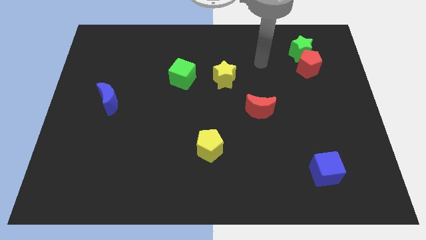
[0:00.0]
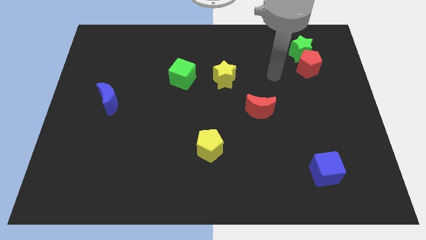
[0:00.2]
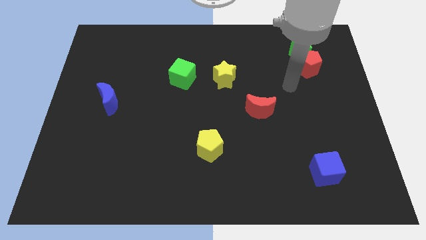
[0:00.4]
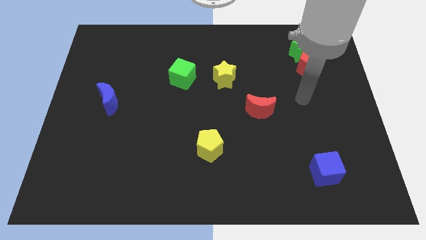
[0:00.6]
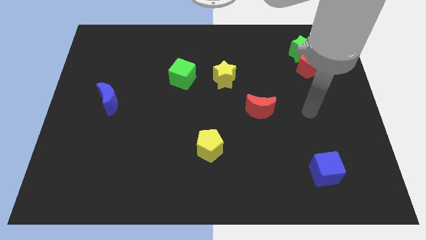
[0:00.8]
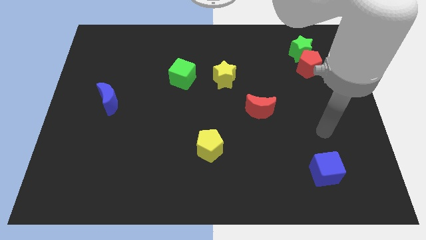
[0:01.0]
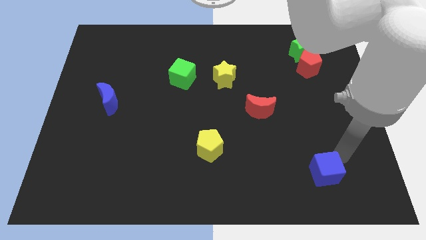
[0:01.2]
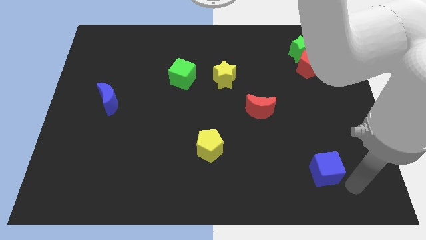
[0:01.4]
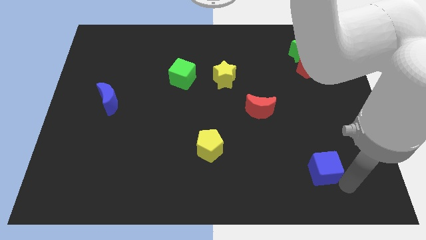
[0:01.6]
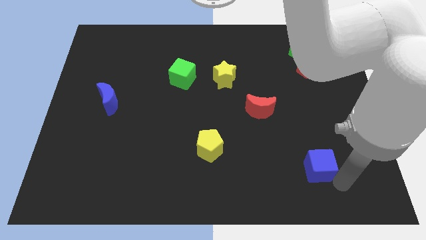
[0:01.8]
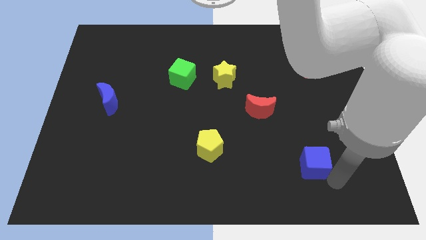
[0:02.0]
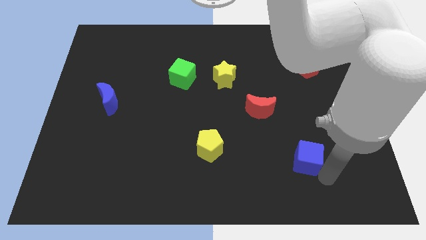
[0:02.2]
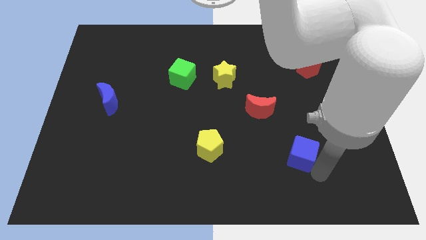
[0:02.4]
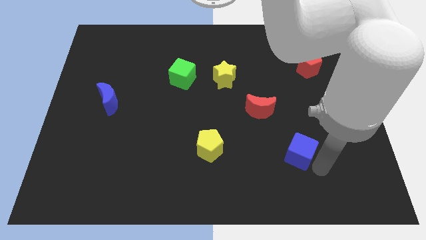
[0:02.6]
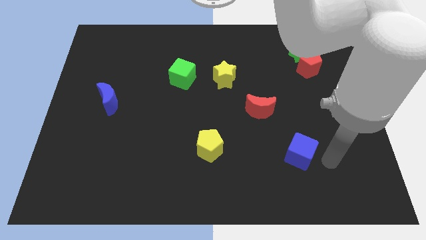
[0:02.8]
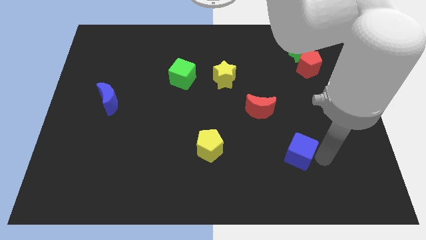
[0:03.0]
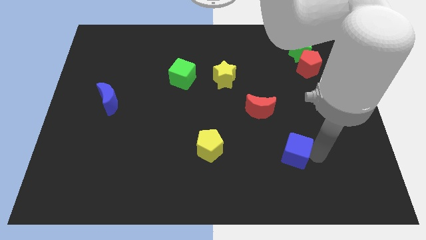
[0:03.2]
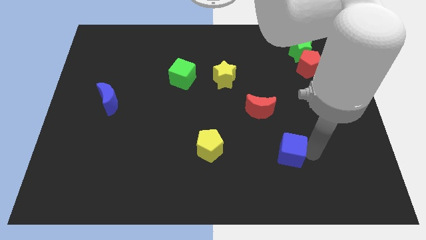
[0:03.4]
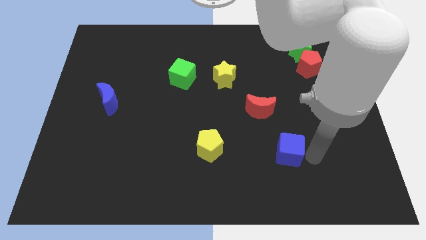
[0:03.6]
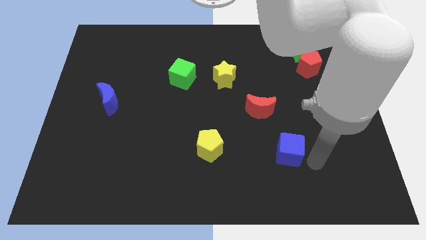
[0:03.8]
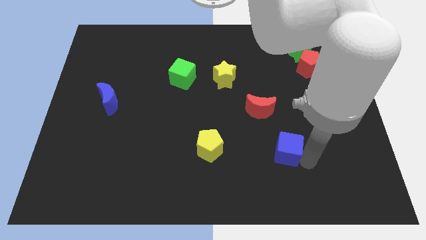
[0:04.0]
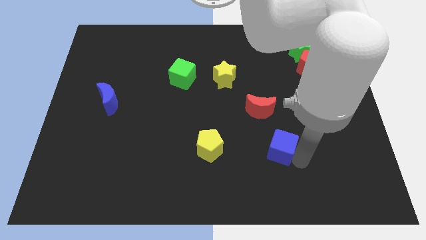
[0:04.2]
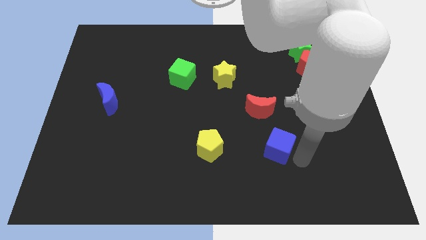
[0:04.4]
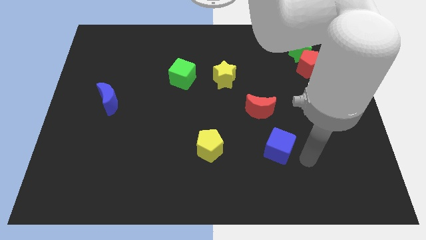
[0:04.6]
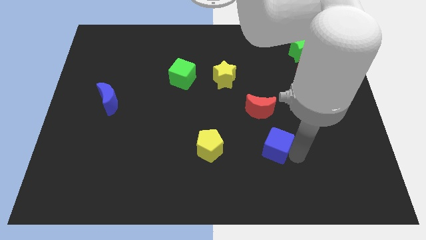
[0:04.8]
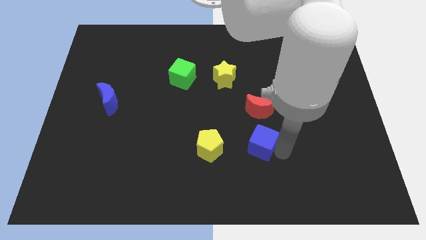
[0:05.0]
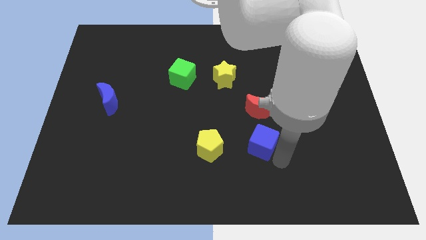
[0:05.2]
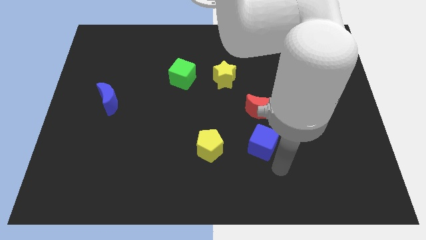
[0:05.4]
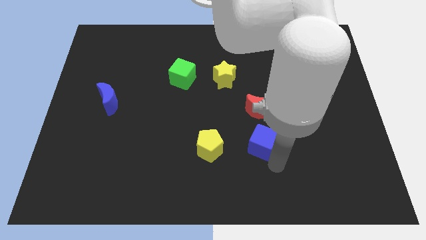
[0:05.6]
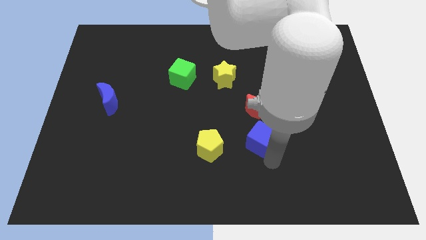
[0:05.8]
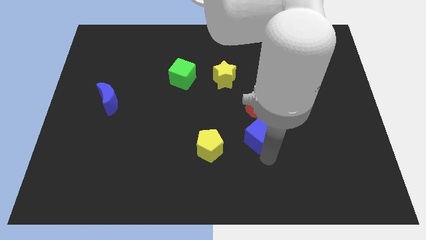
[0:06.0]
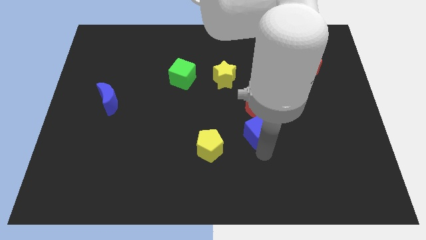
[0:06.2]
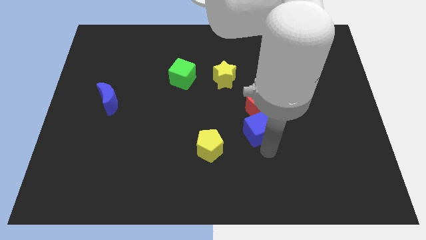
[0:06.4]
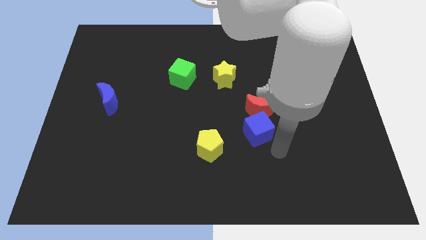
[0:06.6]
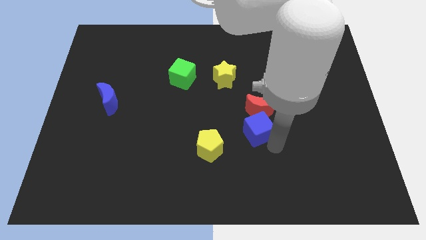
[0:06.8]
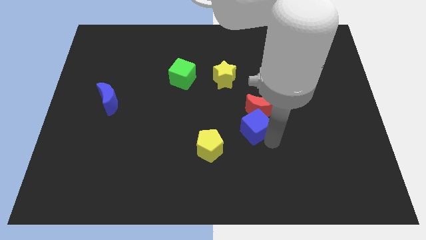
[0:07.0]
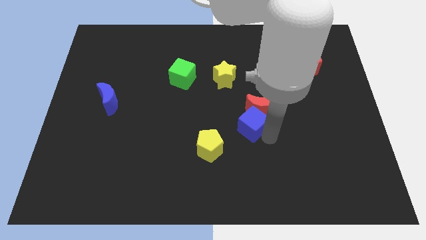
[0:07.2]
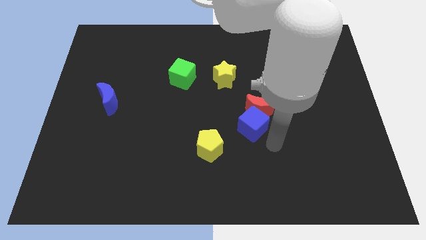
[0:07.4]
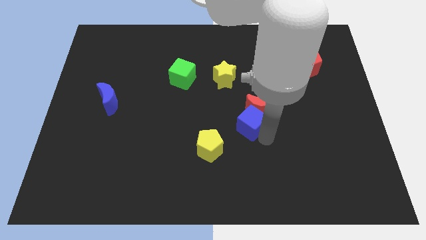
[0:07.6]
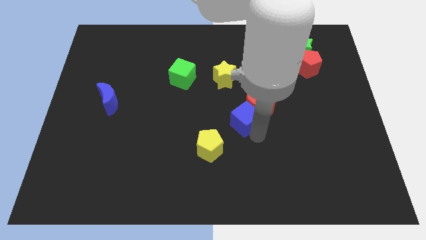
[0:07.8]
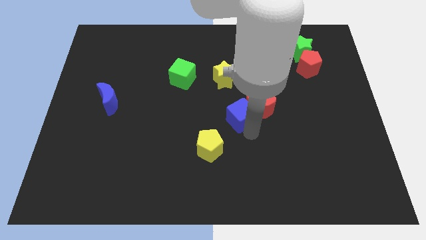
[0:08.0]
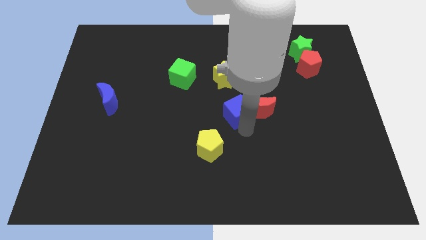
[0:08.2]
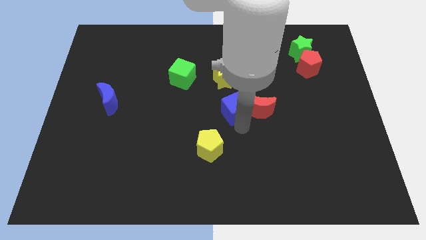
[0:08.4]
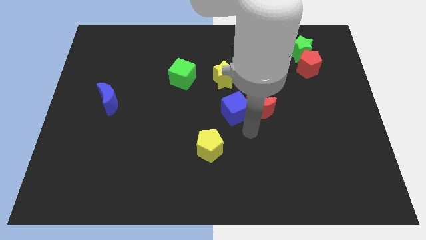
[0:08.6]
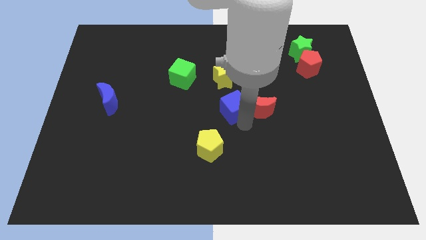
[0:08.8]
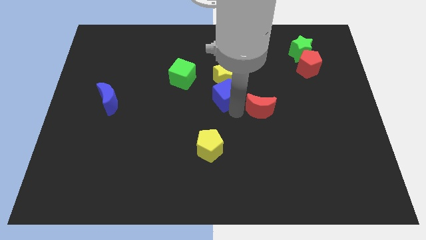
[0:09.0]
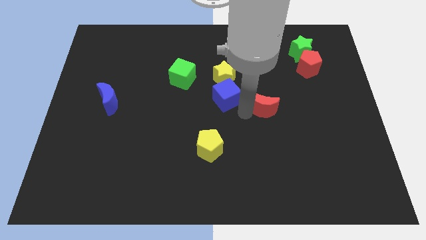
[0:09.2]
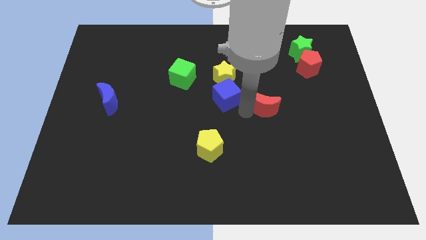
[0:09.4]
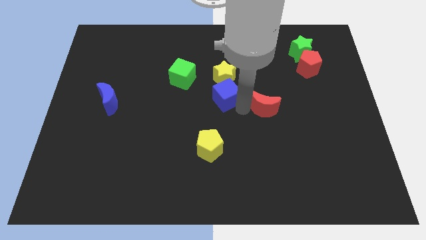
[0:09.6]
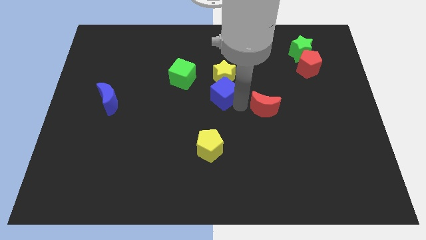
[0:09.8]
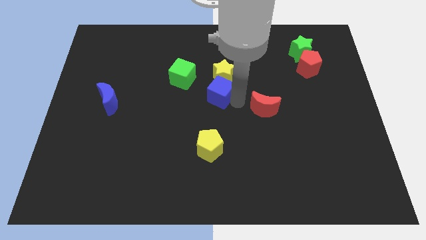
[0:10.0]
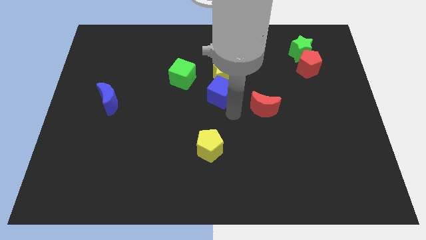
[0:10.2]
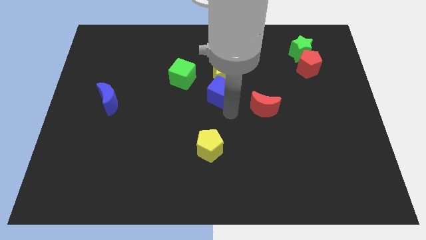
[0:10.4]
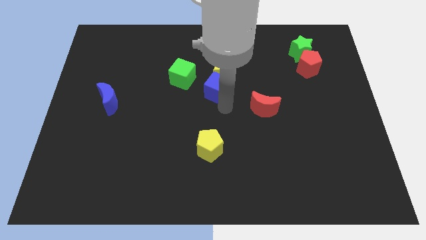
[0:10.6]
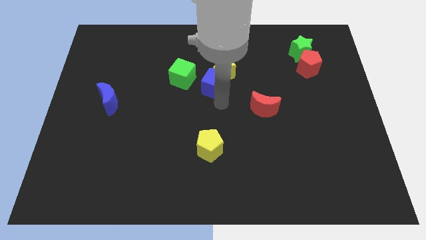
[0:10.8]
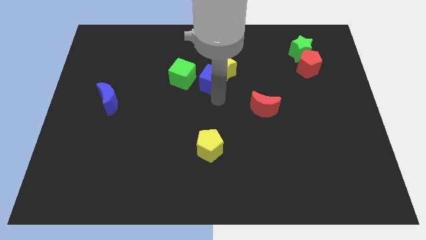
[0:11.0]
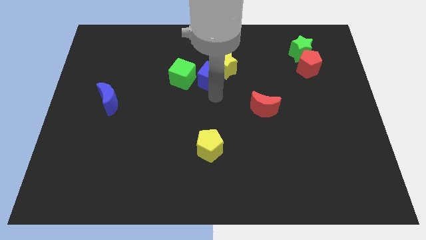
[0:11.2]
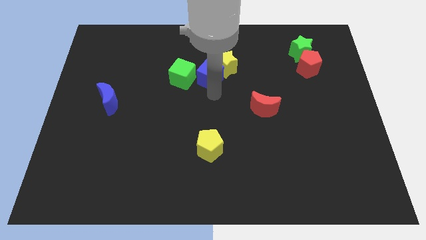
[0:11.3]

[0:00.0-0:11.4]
slide the blue cube to the top right of the green cube

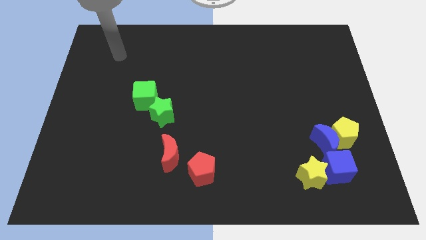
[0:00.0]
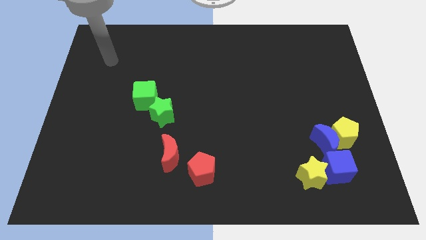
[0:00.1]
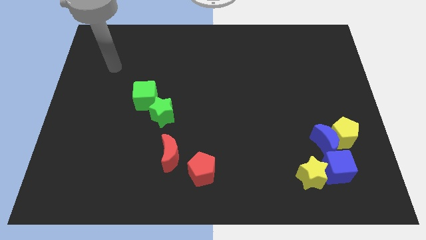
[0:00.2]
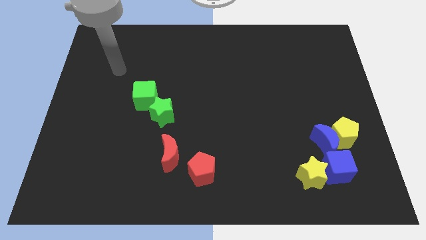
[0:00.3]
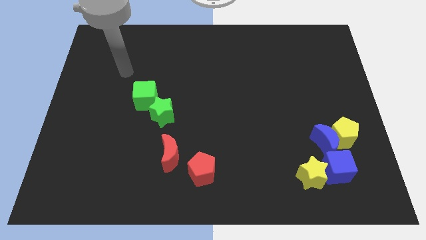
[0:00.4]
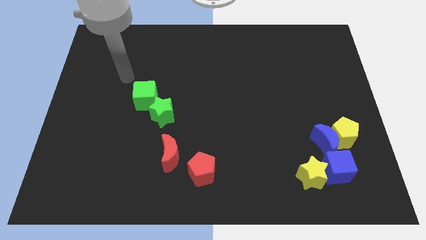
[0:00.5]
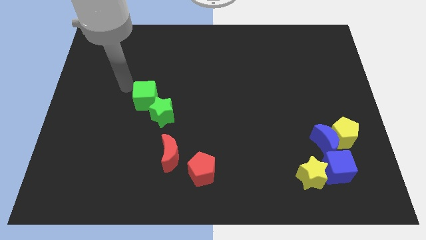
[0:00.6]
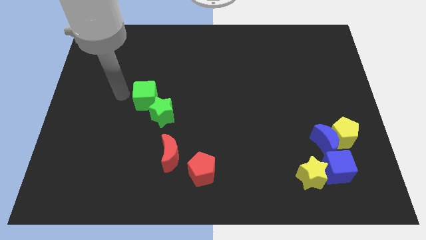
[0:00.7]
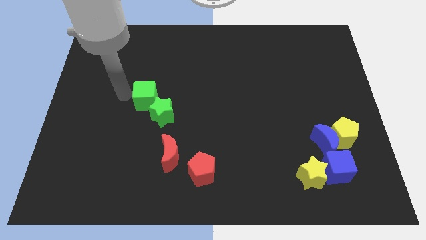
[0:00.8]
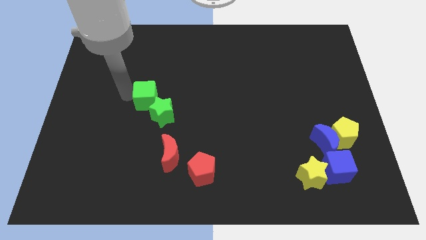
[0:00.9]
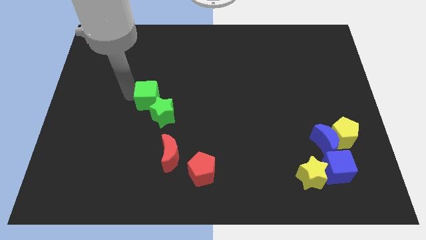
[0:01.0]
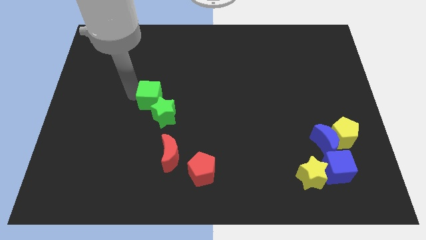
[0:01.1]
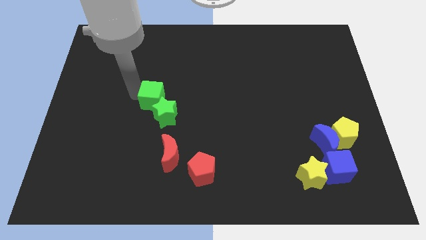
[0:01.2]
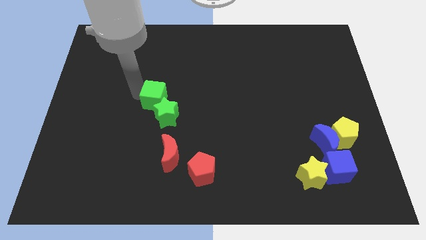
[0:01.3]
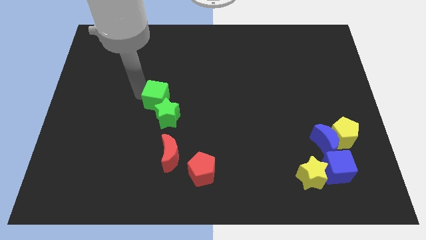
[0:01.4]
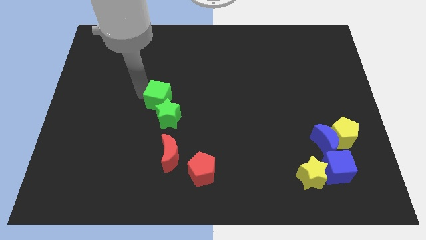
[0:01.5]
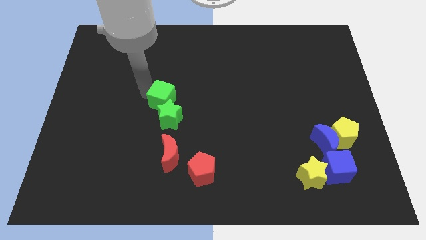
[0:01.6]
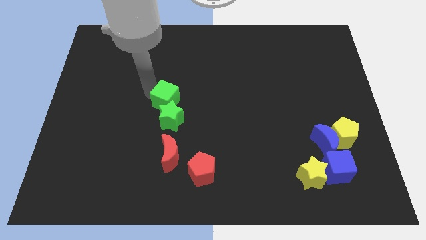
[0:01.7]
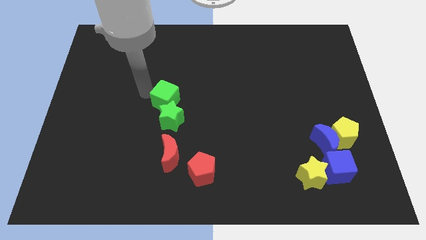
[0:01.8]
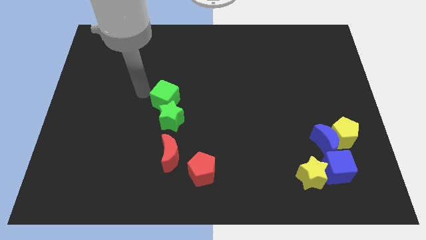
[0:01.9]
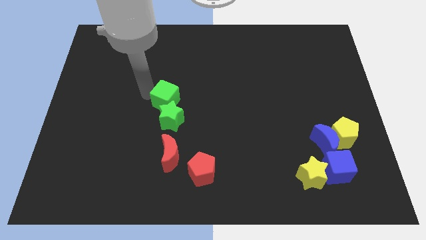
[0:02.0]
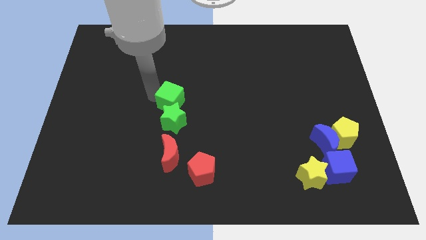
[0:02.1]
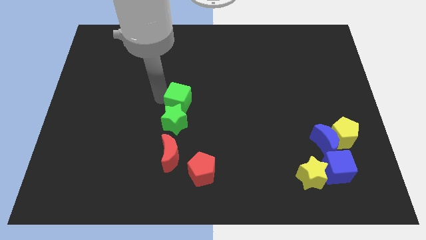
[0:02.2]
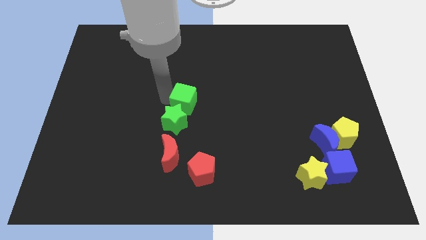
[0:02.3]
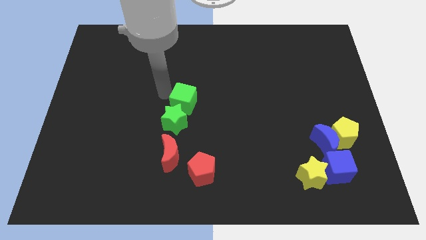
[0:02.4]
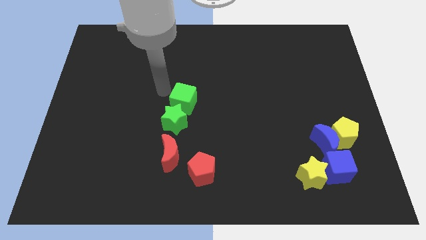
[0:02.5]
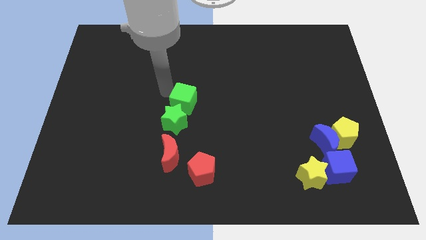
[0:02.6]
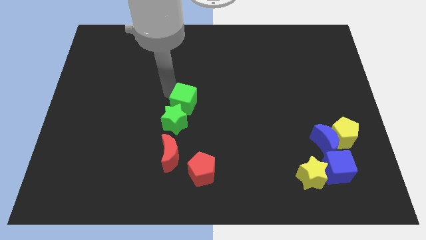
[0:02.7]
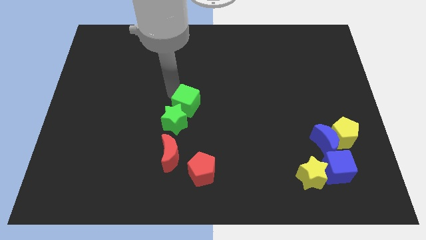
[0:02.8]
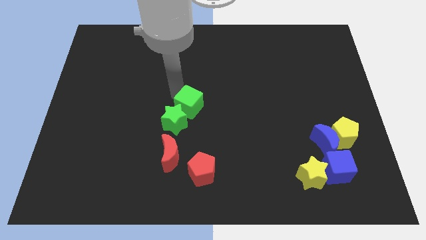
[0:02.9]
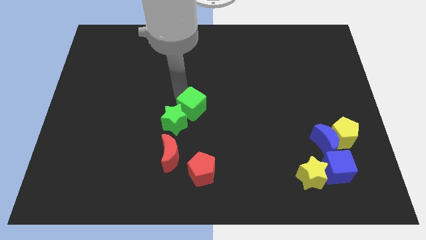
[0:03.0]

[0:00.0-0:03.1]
put the green cube to the right of the green star
